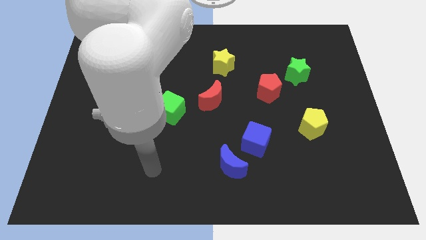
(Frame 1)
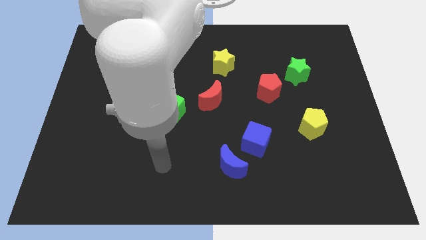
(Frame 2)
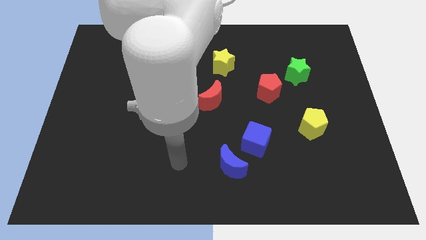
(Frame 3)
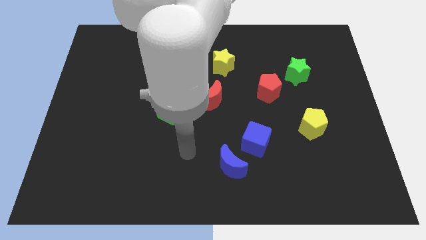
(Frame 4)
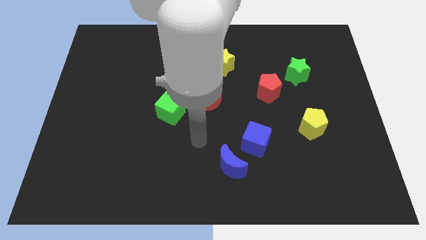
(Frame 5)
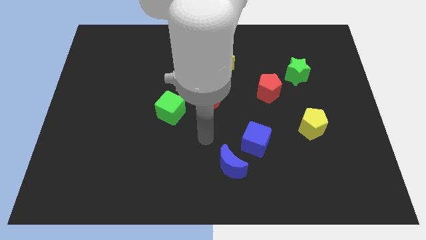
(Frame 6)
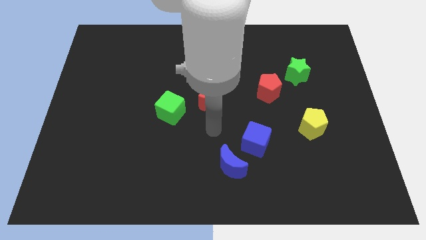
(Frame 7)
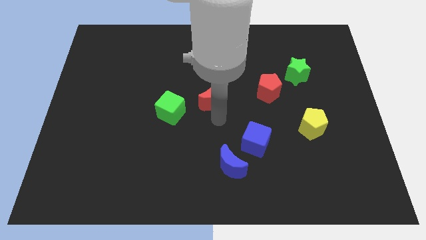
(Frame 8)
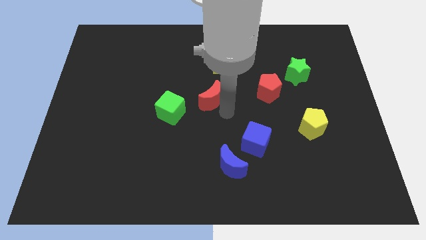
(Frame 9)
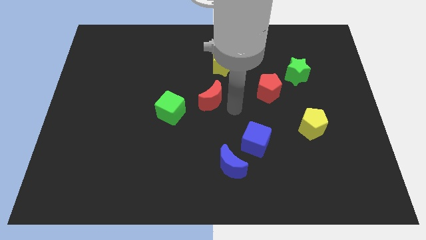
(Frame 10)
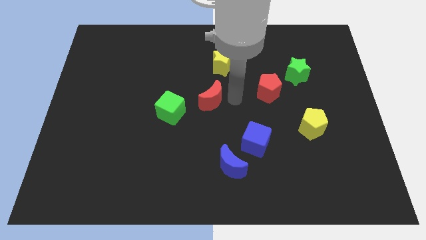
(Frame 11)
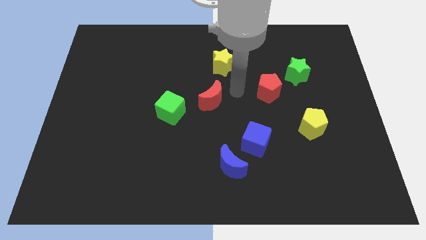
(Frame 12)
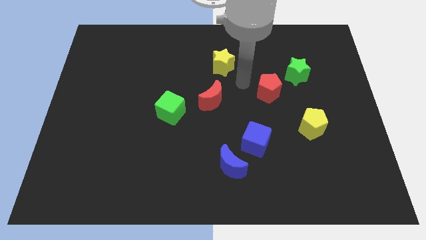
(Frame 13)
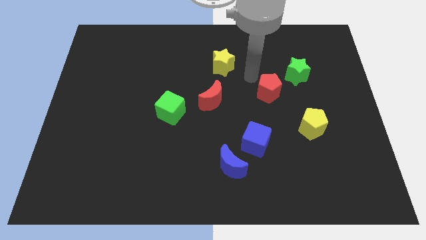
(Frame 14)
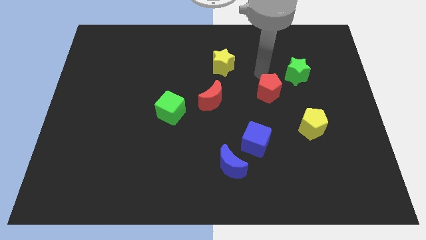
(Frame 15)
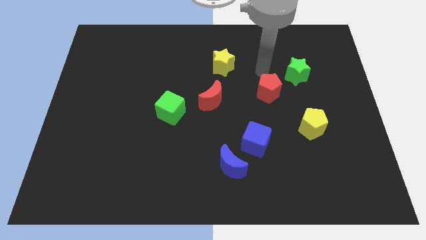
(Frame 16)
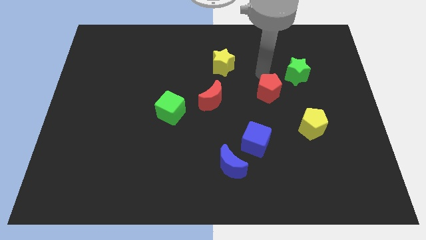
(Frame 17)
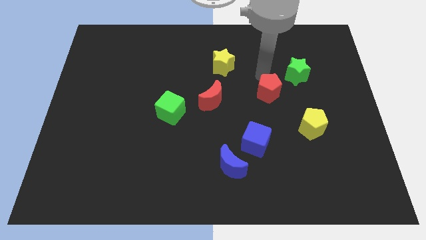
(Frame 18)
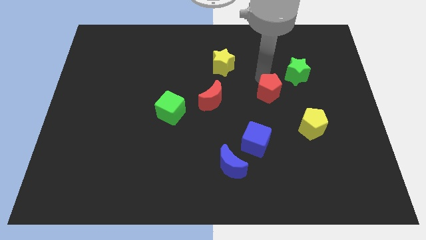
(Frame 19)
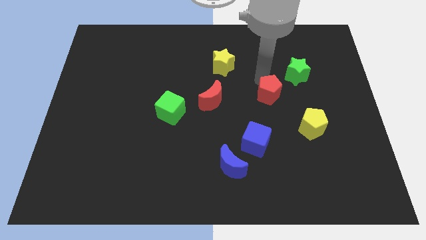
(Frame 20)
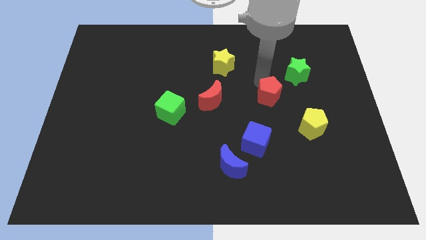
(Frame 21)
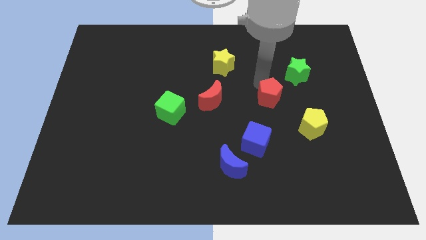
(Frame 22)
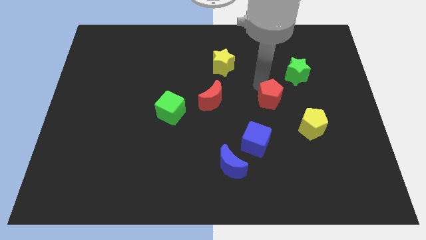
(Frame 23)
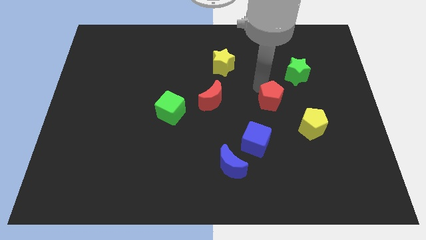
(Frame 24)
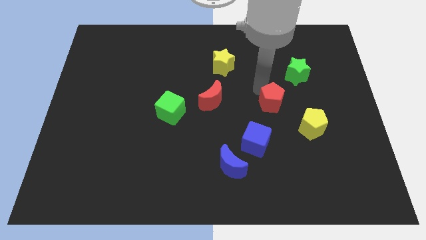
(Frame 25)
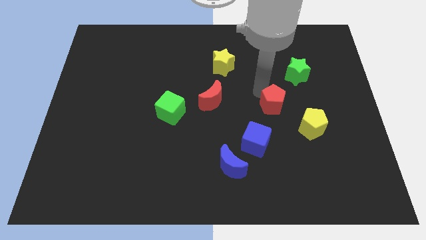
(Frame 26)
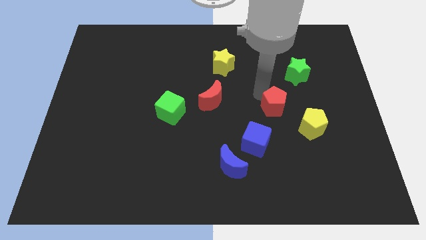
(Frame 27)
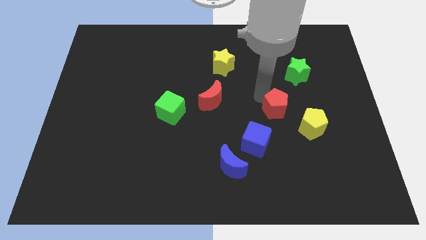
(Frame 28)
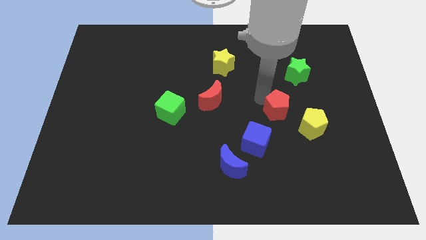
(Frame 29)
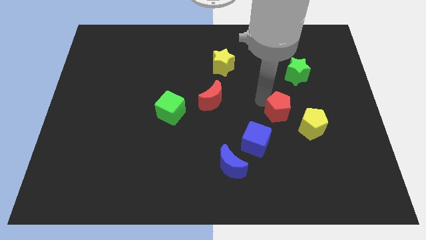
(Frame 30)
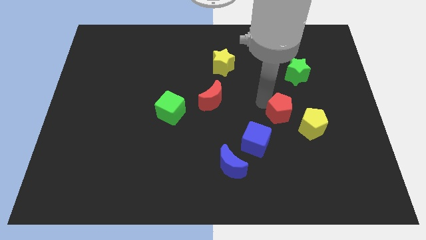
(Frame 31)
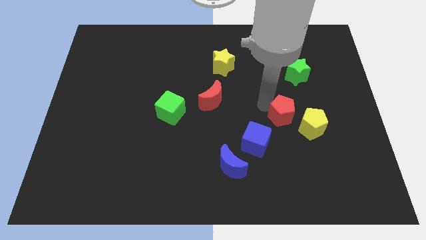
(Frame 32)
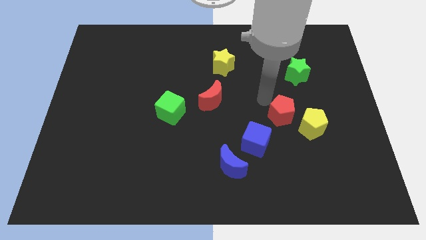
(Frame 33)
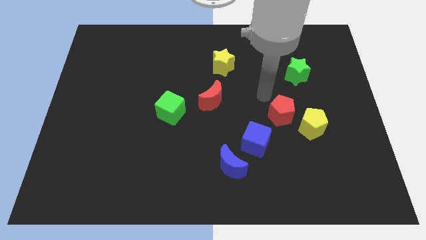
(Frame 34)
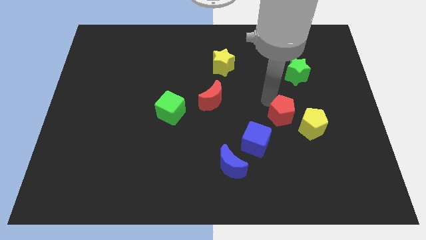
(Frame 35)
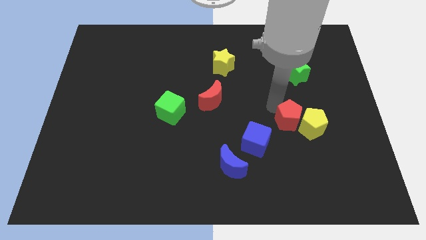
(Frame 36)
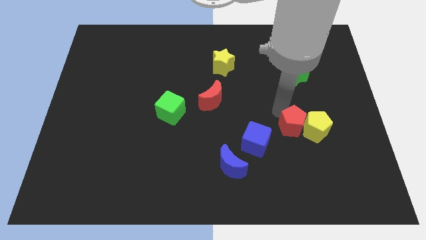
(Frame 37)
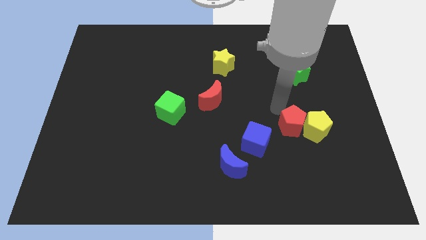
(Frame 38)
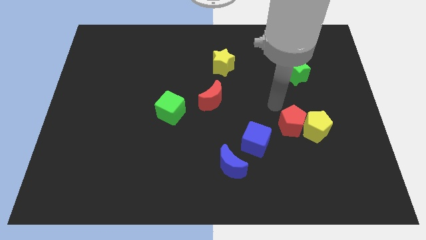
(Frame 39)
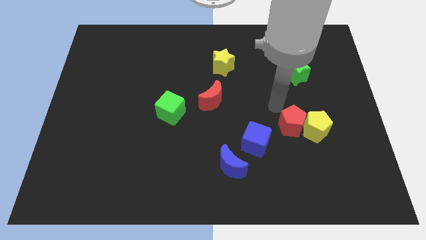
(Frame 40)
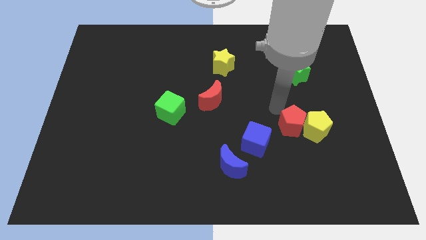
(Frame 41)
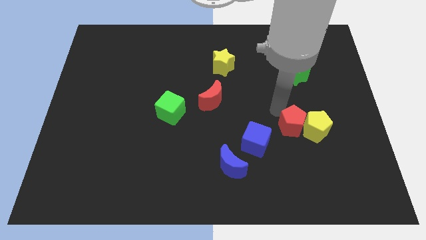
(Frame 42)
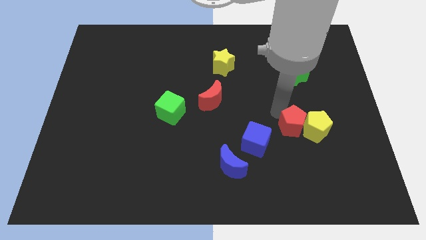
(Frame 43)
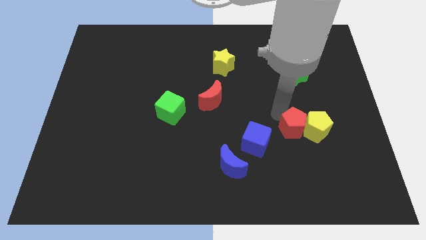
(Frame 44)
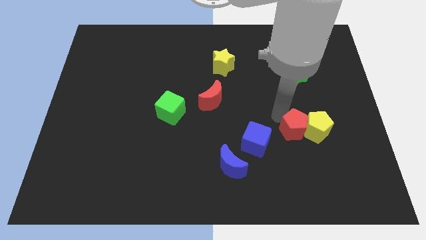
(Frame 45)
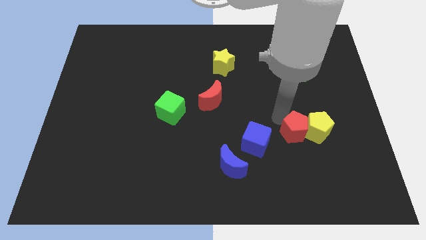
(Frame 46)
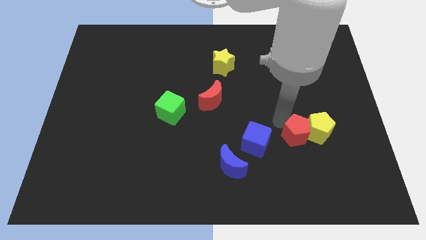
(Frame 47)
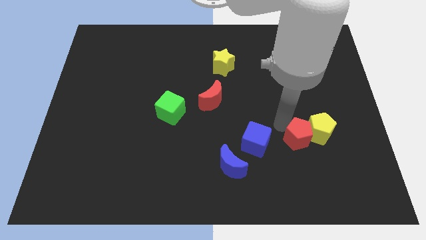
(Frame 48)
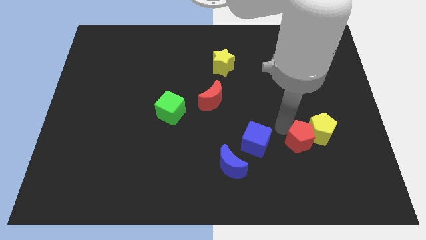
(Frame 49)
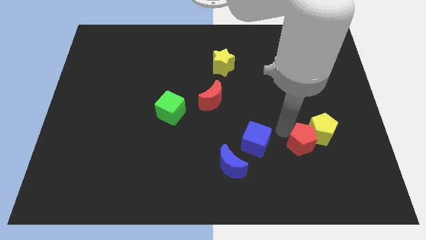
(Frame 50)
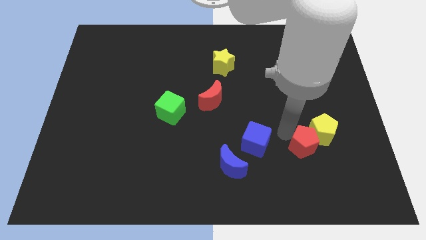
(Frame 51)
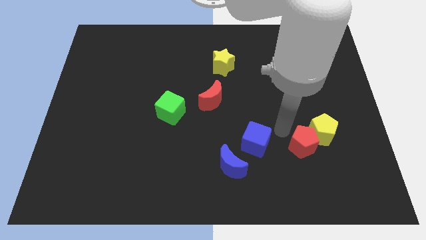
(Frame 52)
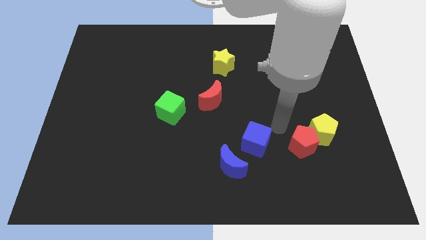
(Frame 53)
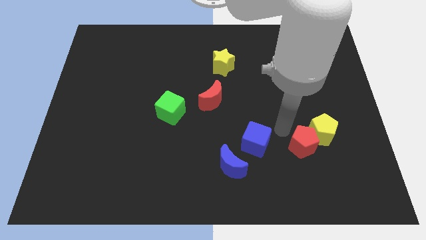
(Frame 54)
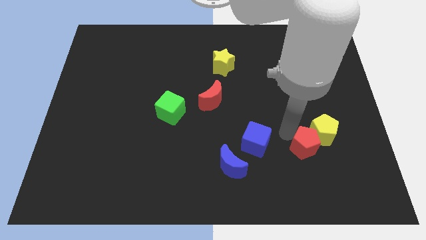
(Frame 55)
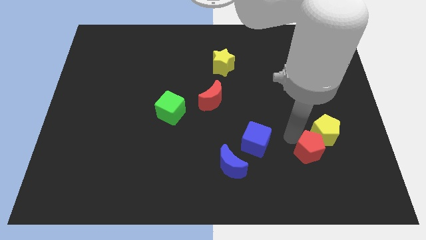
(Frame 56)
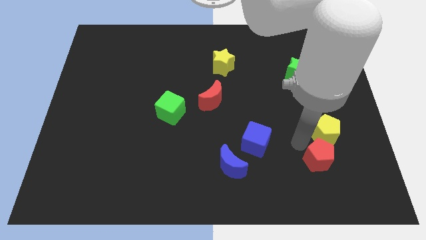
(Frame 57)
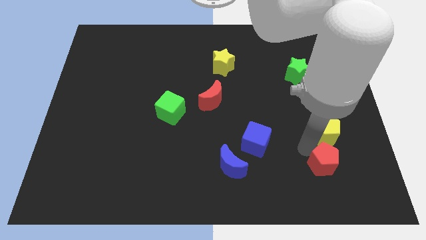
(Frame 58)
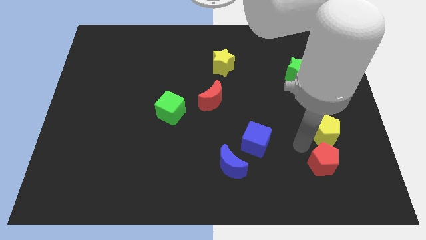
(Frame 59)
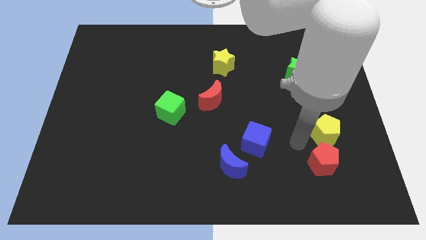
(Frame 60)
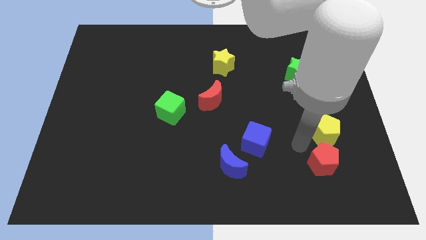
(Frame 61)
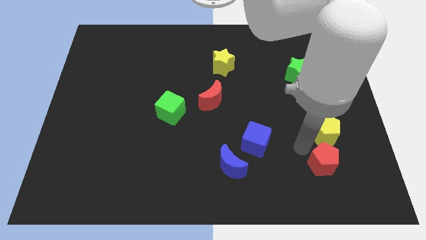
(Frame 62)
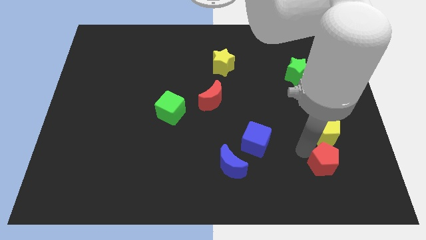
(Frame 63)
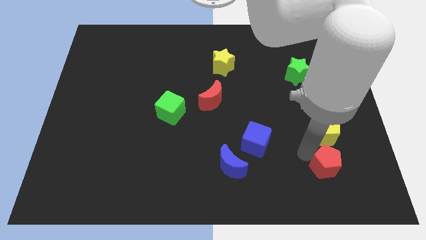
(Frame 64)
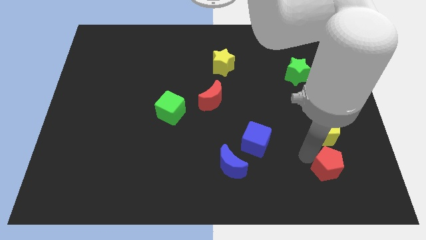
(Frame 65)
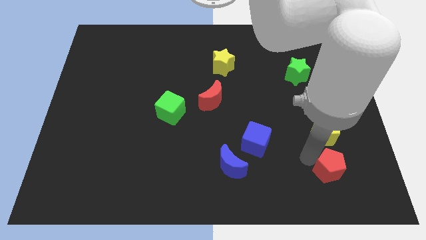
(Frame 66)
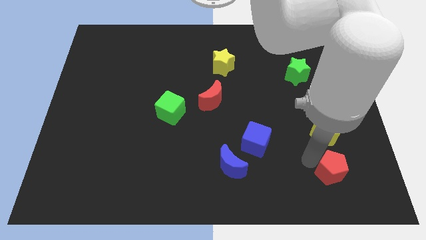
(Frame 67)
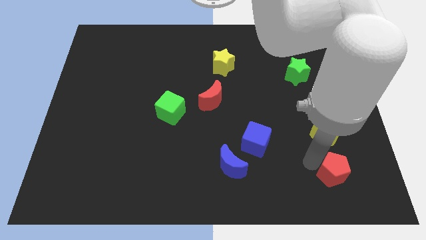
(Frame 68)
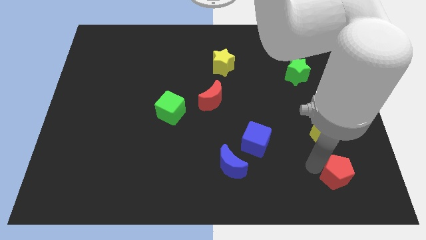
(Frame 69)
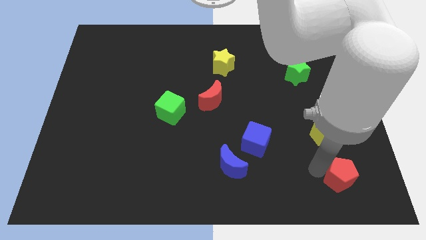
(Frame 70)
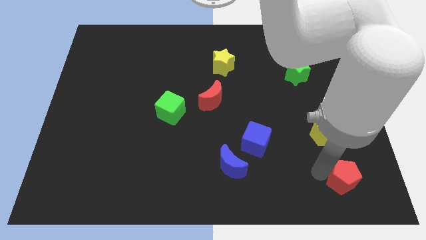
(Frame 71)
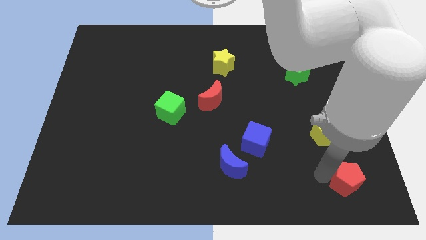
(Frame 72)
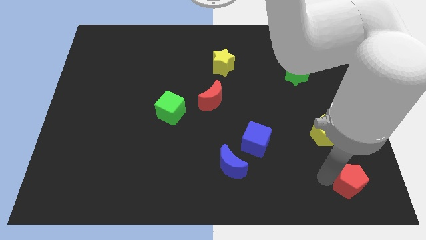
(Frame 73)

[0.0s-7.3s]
push the red pentagon to the bottom right
